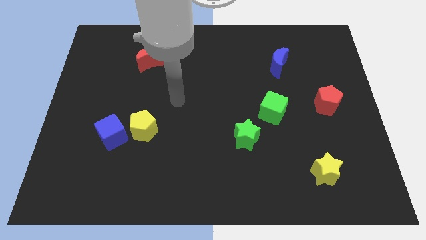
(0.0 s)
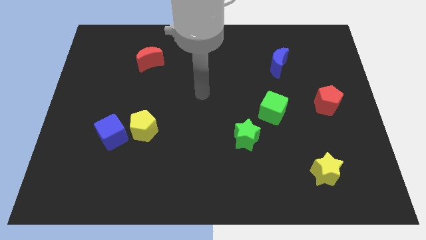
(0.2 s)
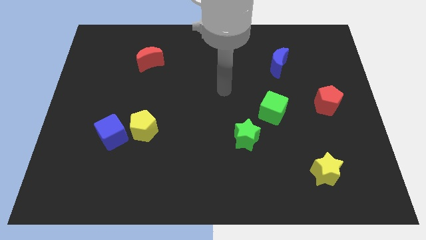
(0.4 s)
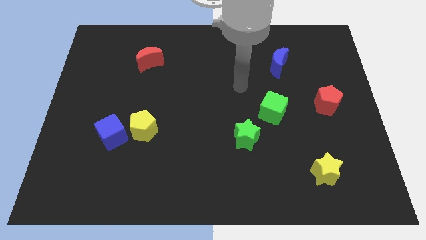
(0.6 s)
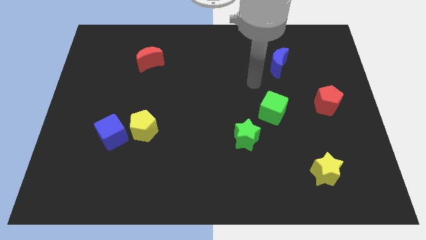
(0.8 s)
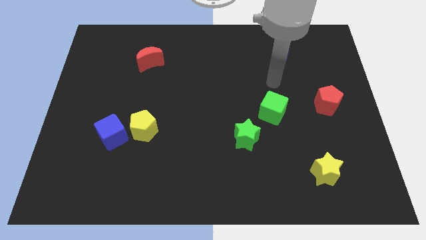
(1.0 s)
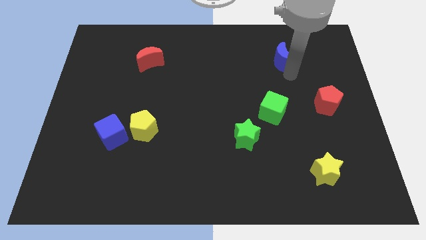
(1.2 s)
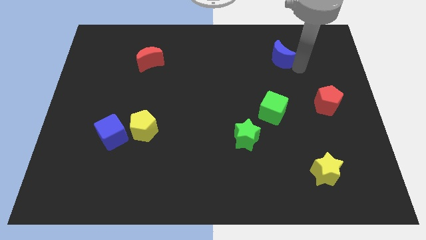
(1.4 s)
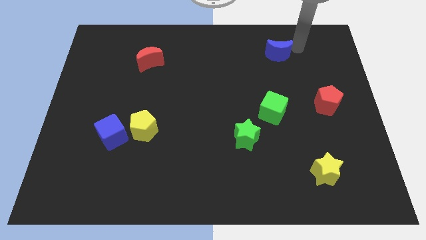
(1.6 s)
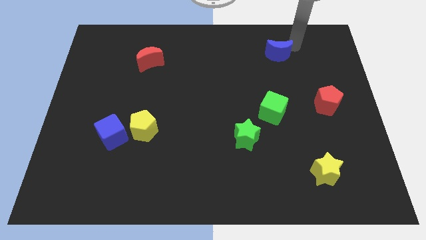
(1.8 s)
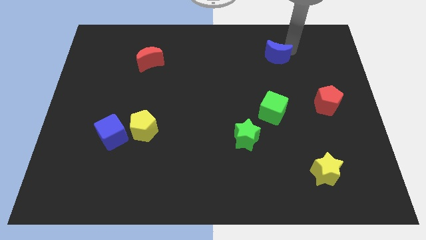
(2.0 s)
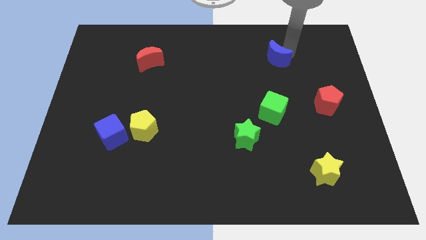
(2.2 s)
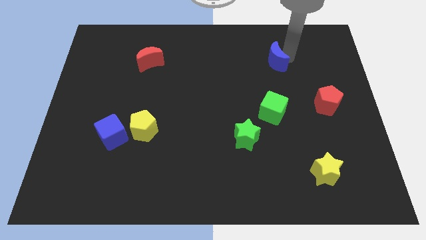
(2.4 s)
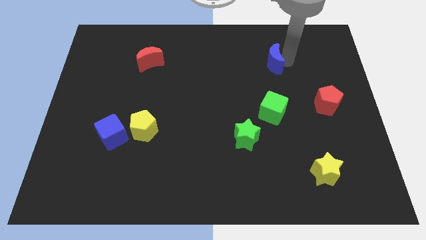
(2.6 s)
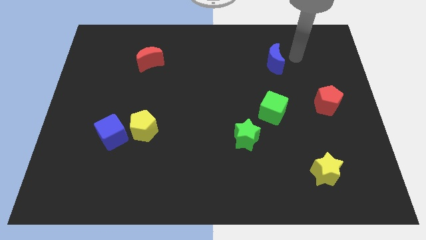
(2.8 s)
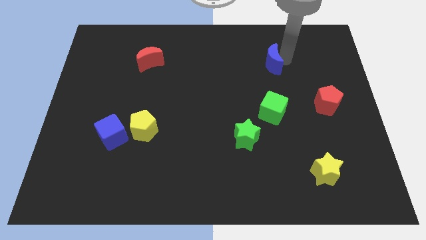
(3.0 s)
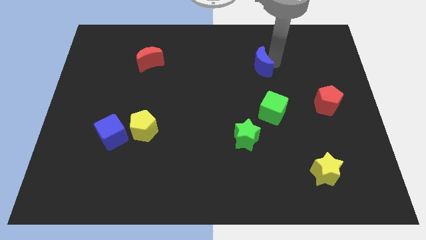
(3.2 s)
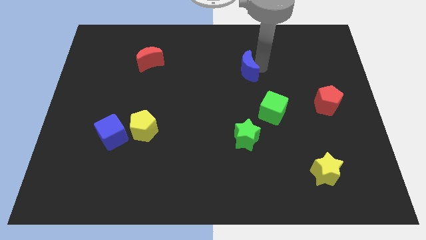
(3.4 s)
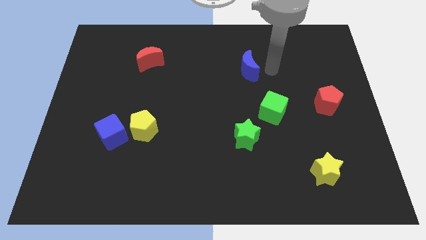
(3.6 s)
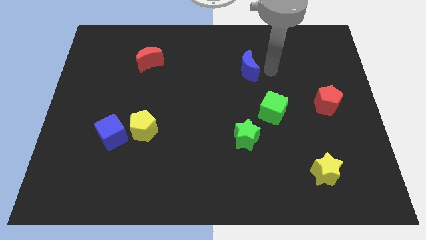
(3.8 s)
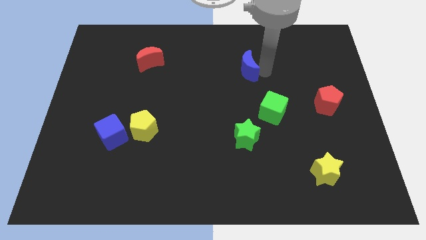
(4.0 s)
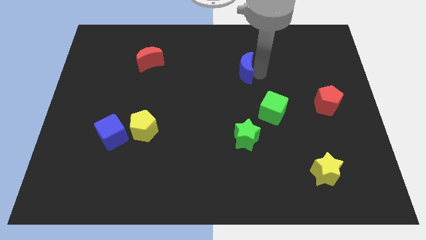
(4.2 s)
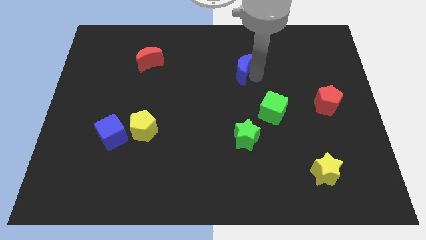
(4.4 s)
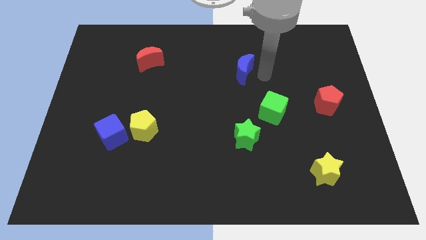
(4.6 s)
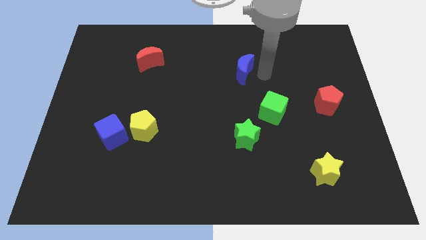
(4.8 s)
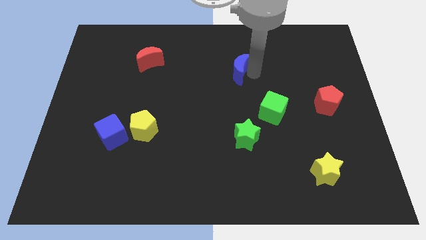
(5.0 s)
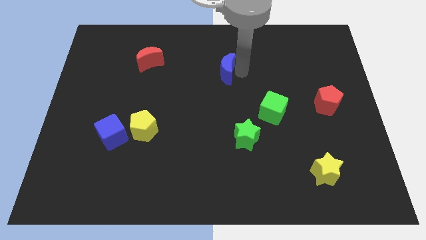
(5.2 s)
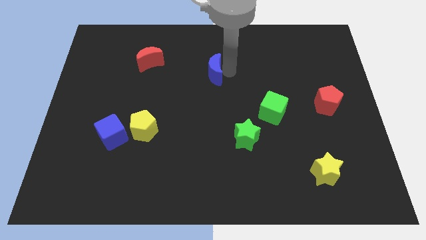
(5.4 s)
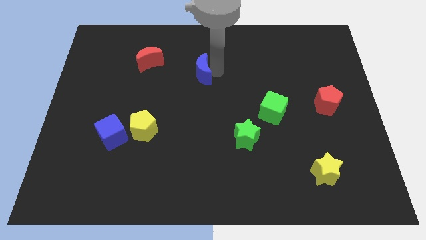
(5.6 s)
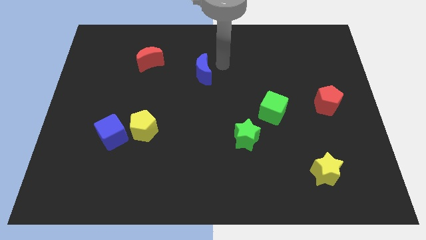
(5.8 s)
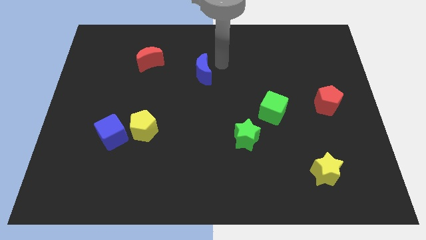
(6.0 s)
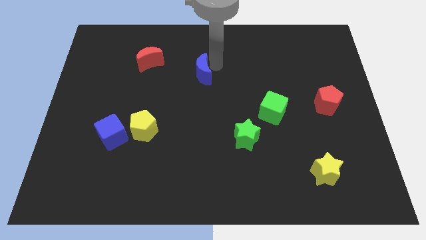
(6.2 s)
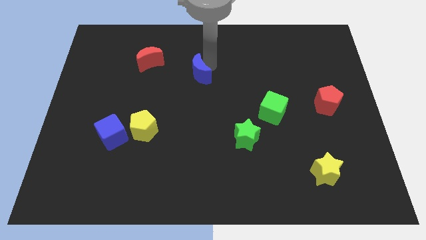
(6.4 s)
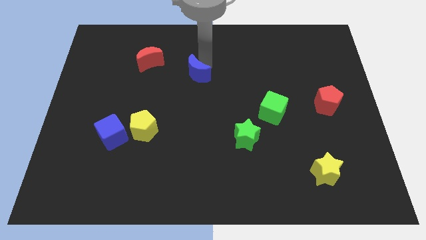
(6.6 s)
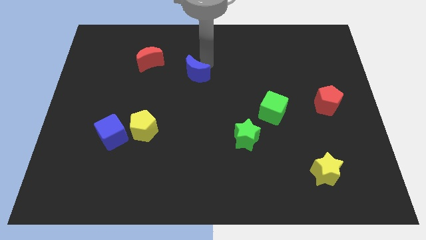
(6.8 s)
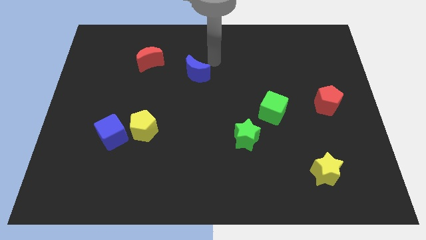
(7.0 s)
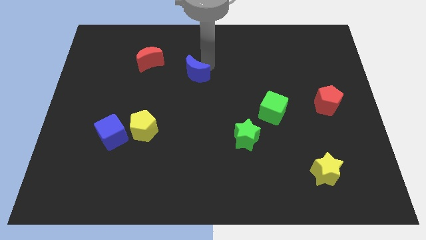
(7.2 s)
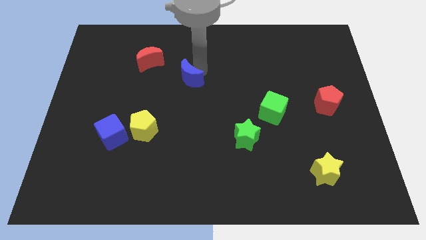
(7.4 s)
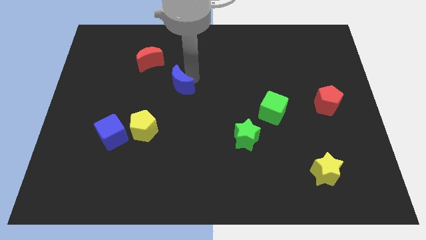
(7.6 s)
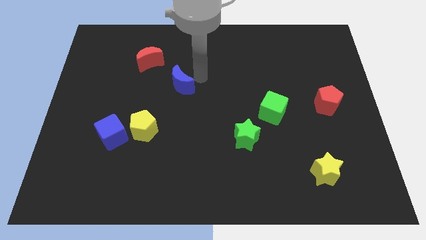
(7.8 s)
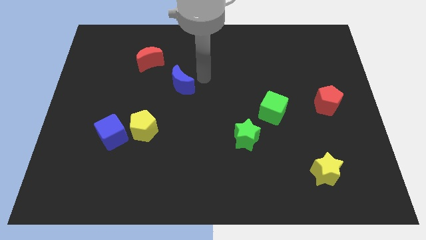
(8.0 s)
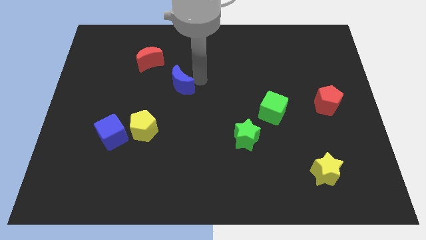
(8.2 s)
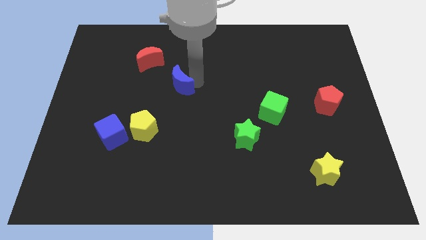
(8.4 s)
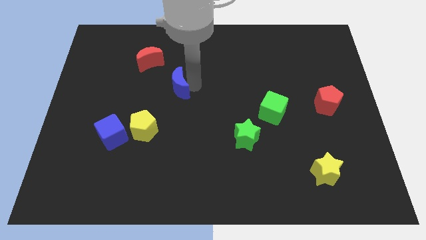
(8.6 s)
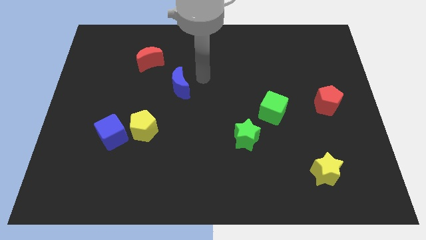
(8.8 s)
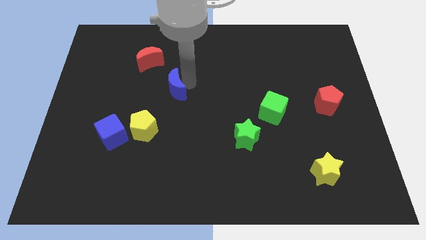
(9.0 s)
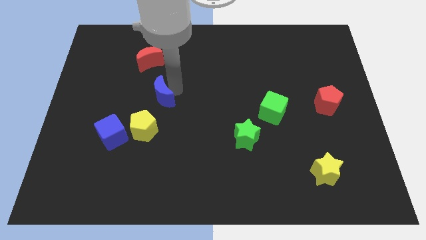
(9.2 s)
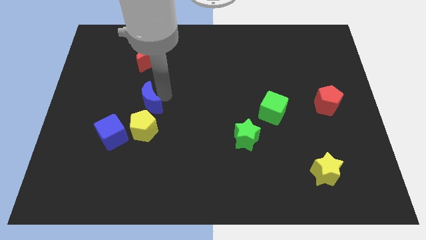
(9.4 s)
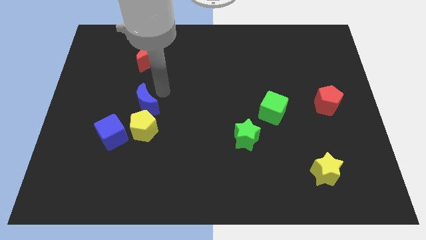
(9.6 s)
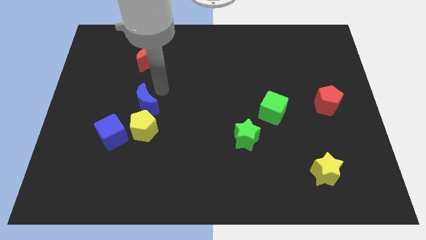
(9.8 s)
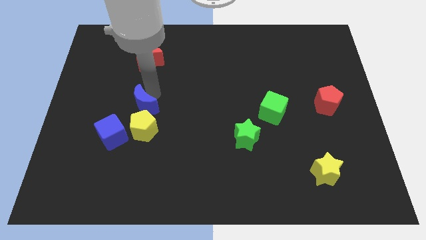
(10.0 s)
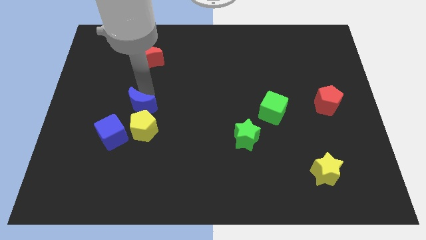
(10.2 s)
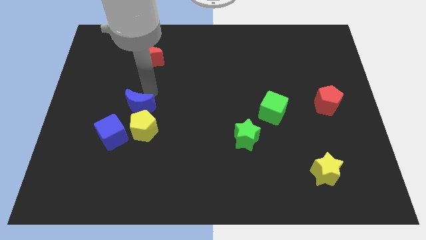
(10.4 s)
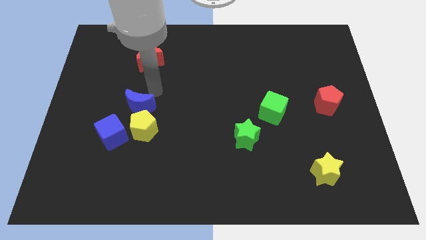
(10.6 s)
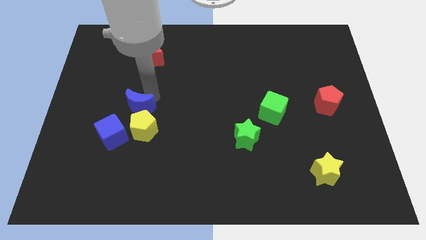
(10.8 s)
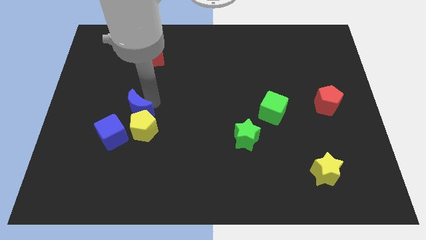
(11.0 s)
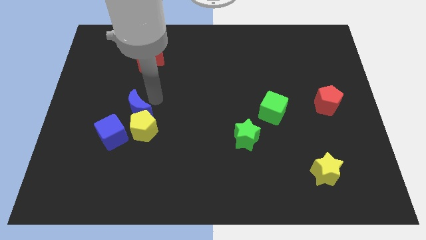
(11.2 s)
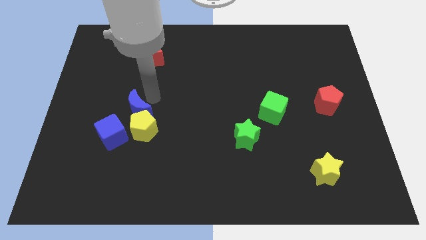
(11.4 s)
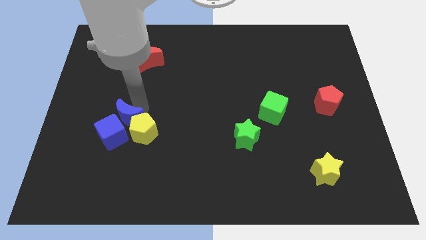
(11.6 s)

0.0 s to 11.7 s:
put the blue moon towards the blue cube

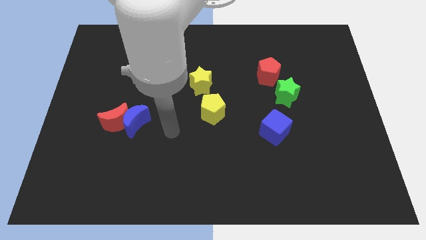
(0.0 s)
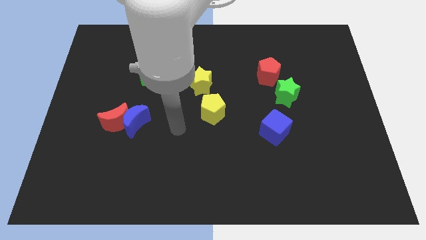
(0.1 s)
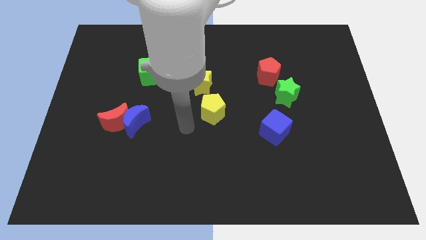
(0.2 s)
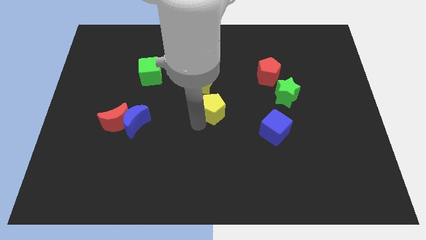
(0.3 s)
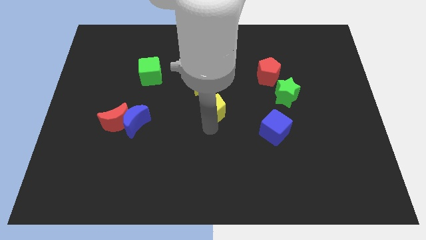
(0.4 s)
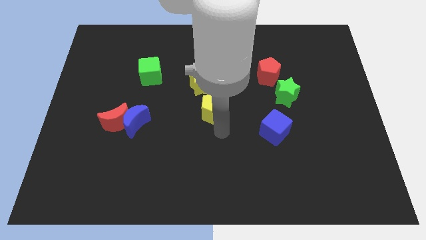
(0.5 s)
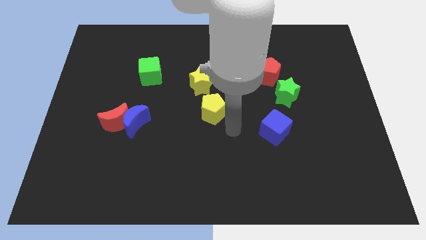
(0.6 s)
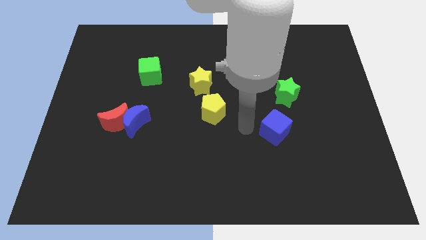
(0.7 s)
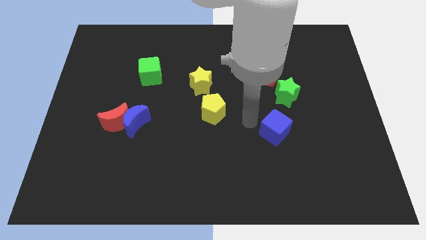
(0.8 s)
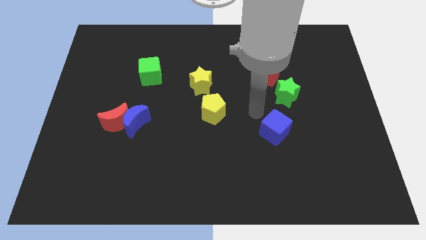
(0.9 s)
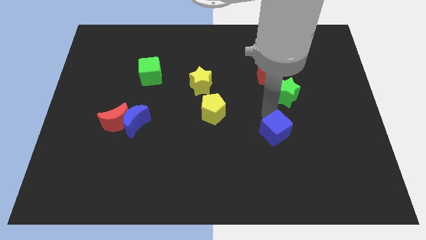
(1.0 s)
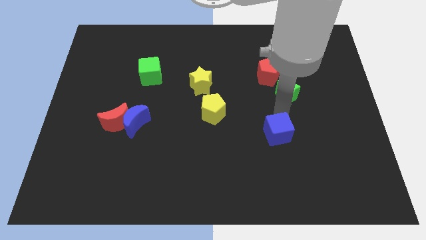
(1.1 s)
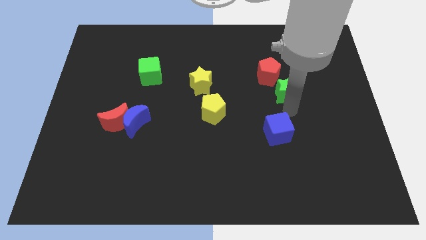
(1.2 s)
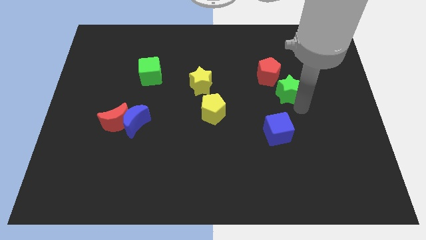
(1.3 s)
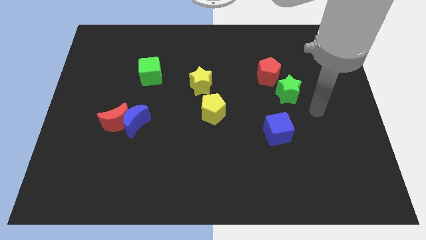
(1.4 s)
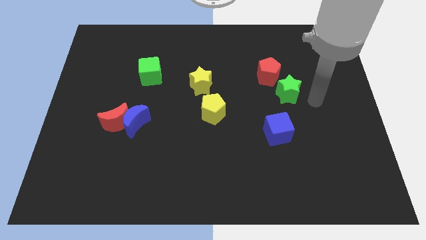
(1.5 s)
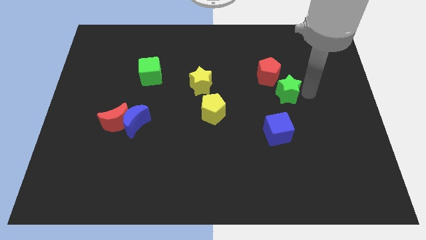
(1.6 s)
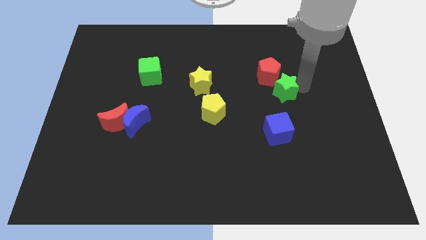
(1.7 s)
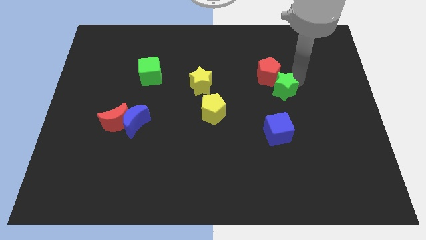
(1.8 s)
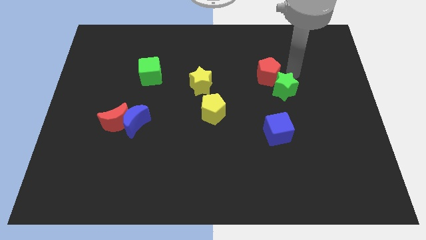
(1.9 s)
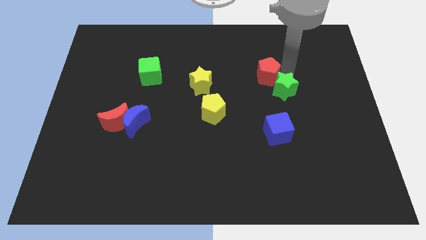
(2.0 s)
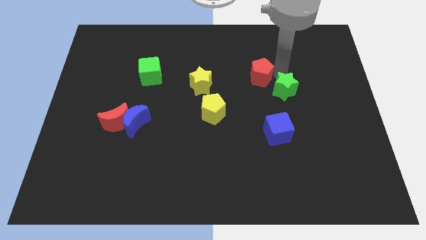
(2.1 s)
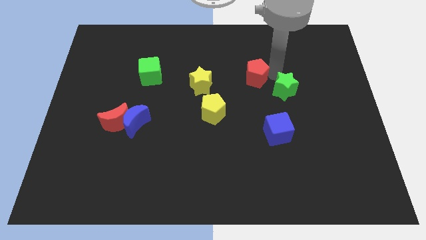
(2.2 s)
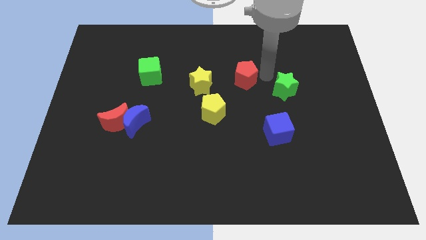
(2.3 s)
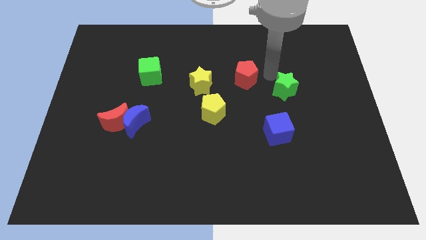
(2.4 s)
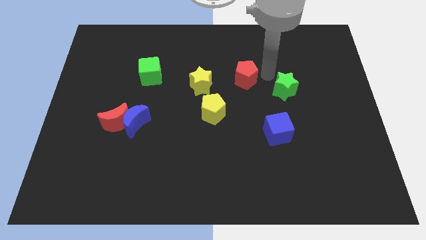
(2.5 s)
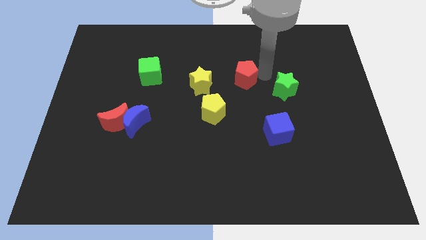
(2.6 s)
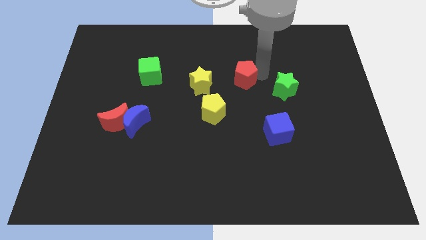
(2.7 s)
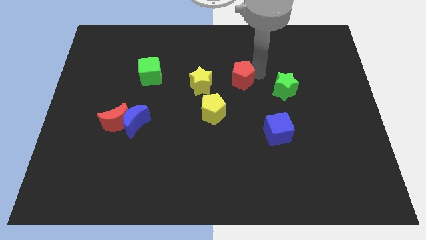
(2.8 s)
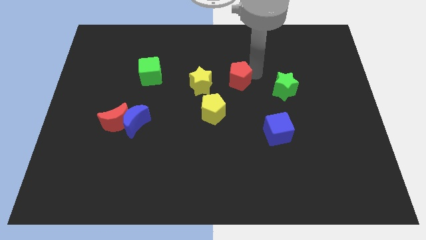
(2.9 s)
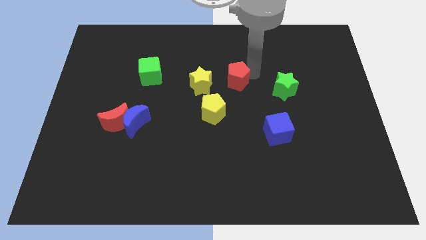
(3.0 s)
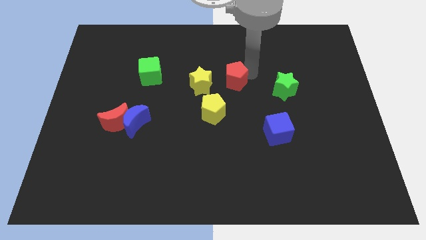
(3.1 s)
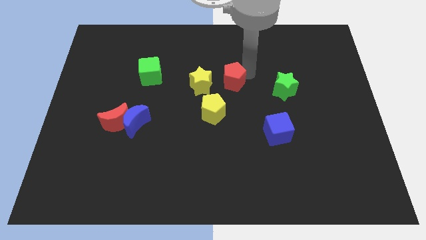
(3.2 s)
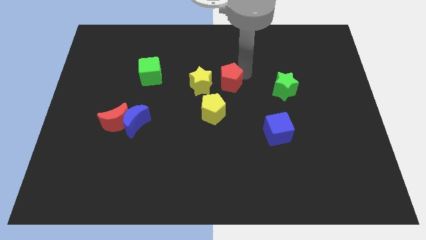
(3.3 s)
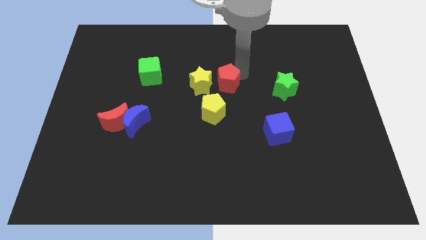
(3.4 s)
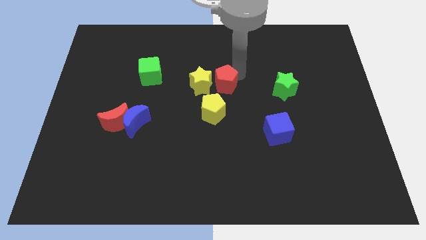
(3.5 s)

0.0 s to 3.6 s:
push the red pentagon towards the yellow star
